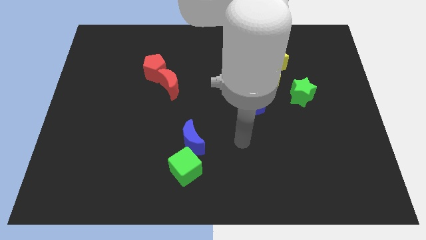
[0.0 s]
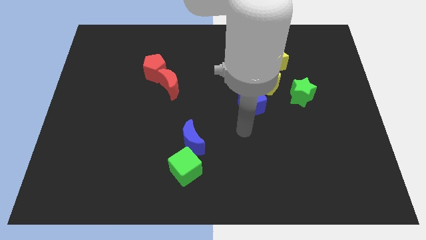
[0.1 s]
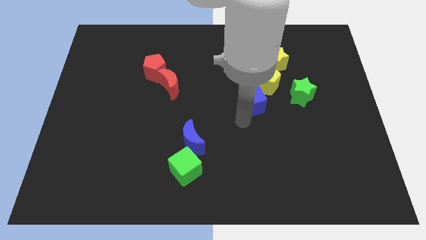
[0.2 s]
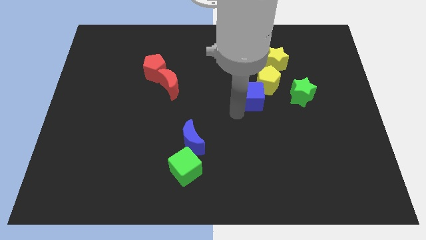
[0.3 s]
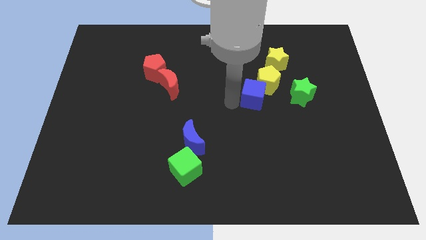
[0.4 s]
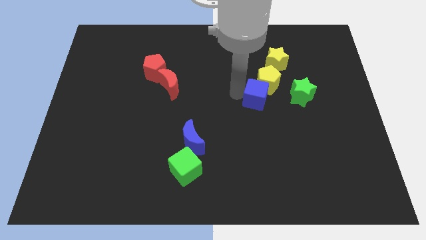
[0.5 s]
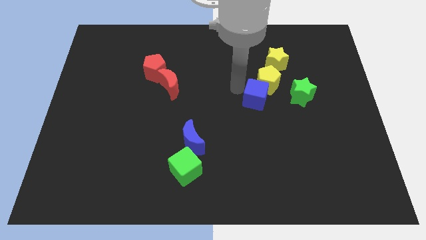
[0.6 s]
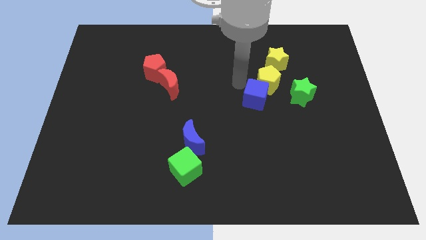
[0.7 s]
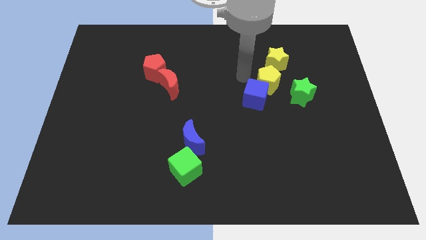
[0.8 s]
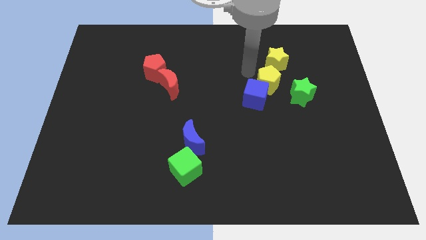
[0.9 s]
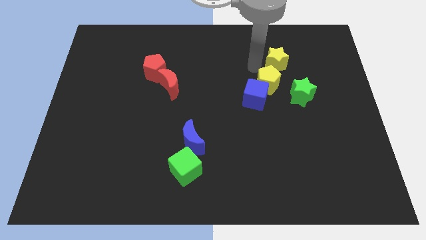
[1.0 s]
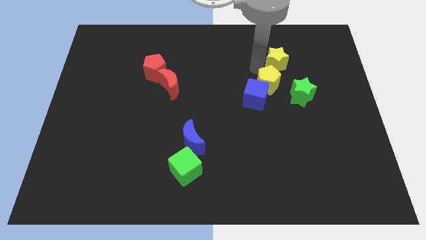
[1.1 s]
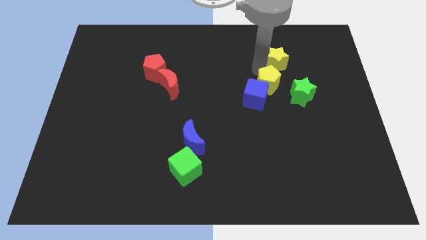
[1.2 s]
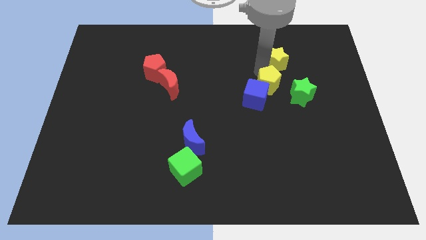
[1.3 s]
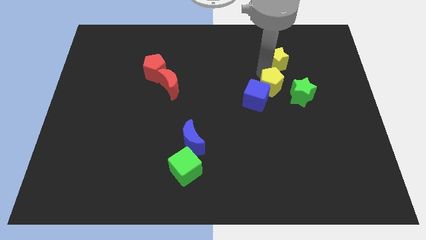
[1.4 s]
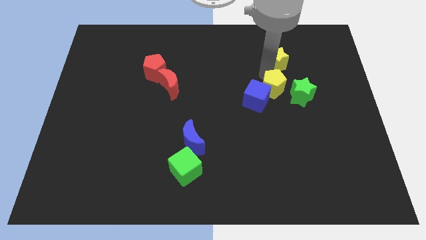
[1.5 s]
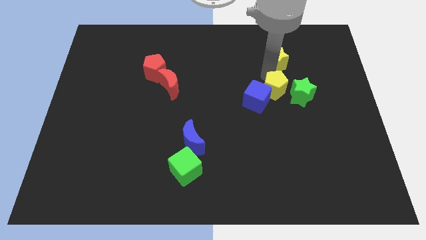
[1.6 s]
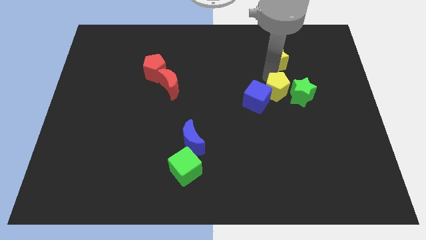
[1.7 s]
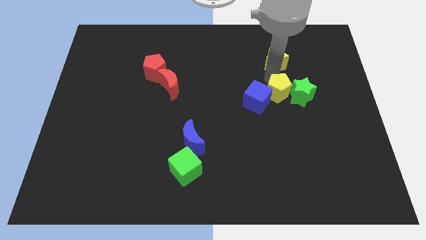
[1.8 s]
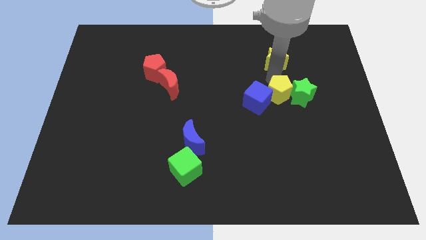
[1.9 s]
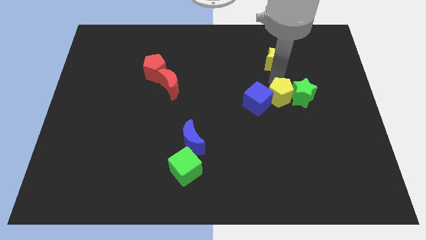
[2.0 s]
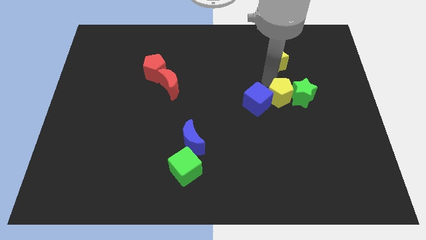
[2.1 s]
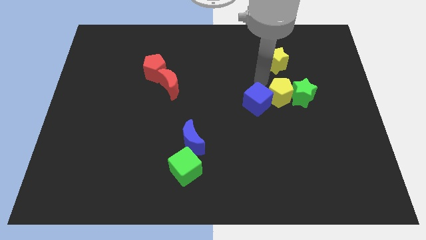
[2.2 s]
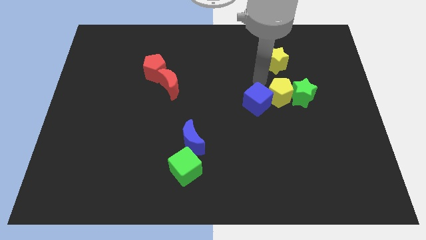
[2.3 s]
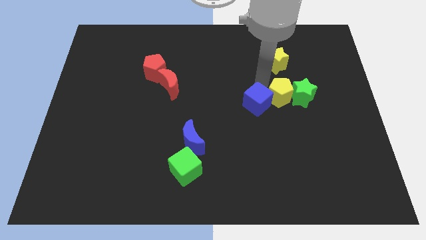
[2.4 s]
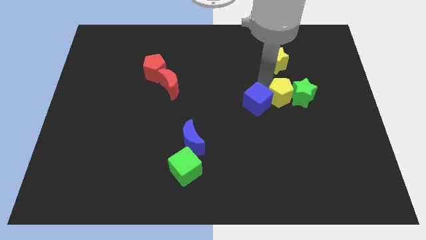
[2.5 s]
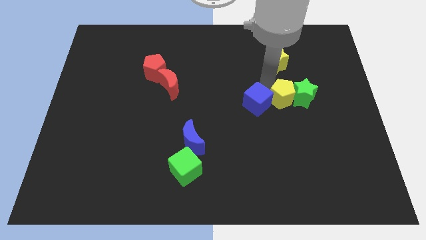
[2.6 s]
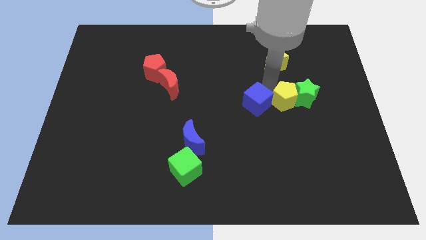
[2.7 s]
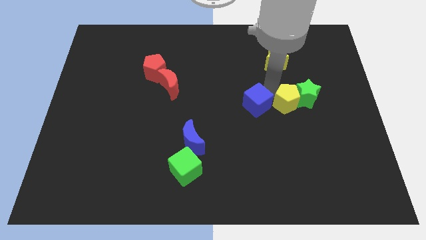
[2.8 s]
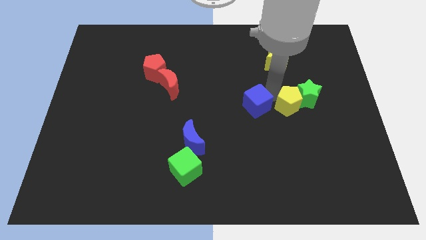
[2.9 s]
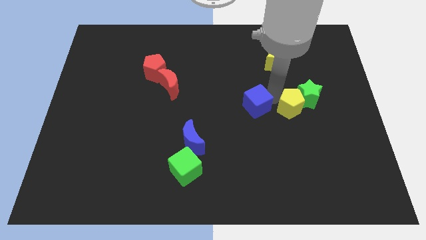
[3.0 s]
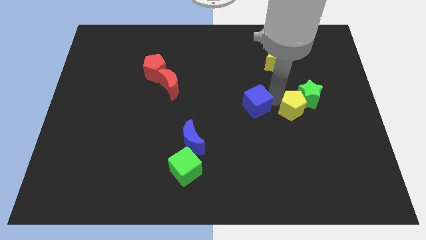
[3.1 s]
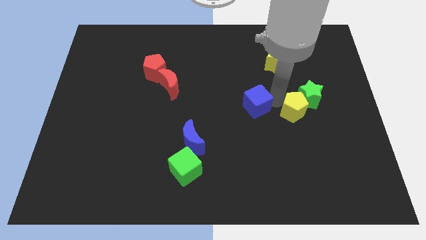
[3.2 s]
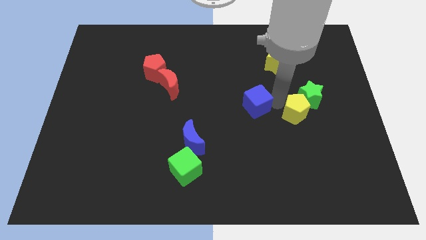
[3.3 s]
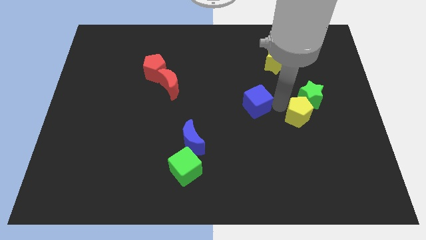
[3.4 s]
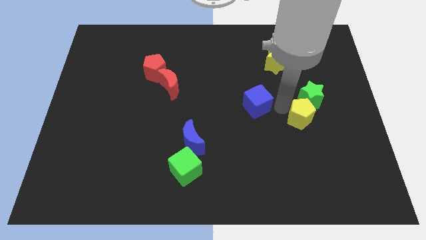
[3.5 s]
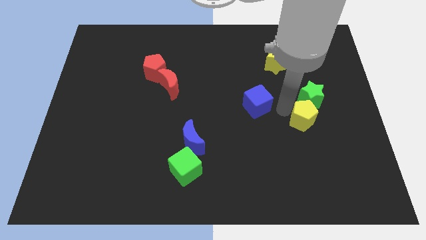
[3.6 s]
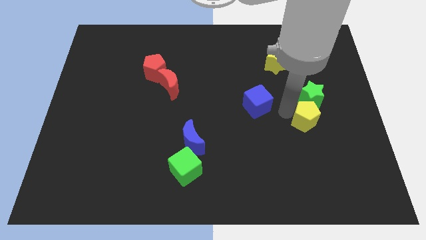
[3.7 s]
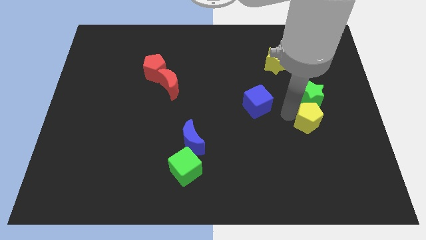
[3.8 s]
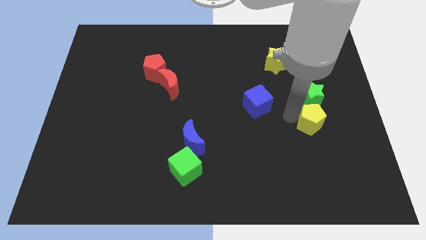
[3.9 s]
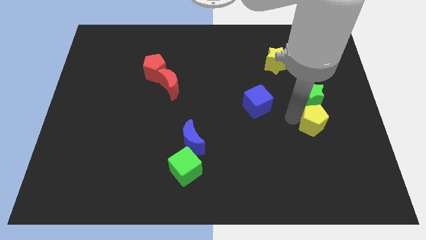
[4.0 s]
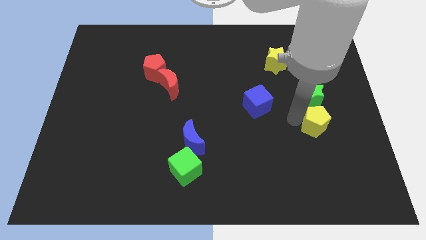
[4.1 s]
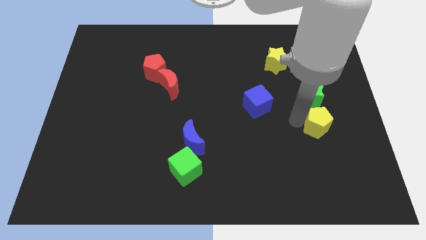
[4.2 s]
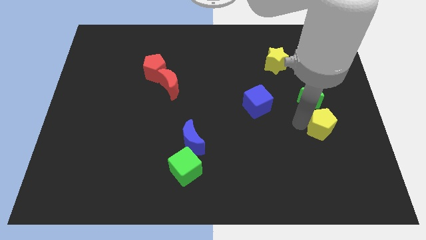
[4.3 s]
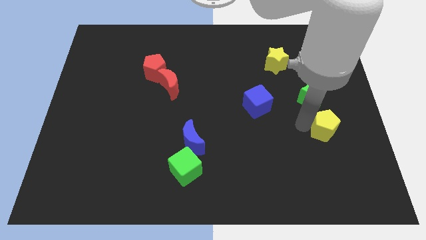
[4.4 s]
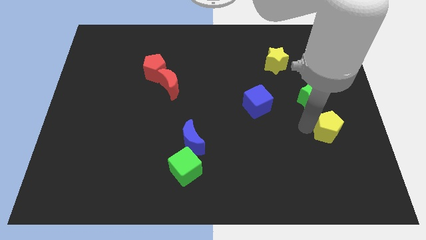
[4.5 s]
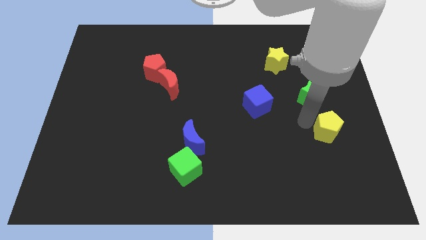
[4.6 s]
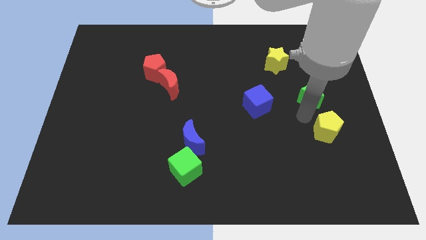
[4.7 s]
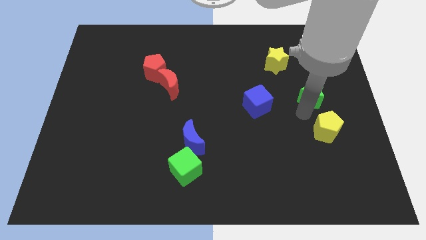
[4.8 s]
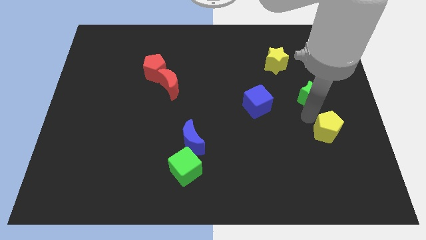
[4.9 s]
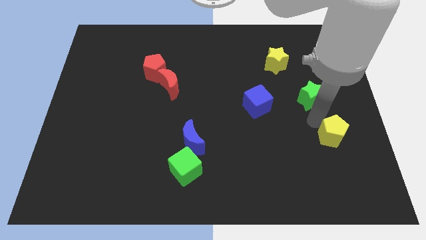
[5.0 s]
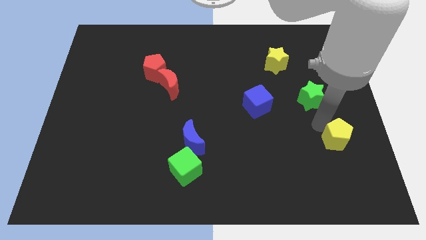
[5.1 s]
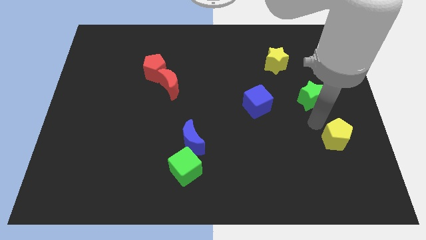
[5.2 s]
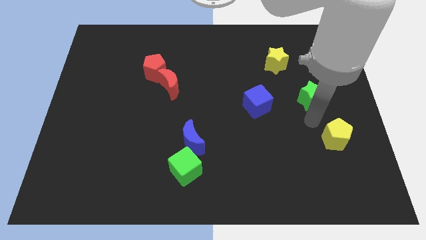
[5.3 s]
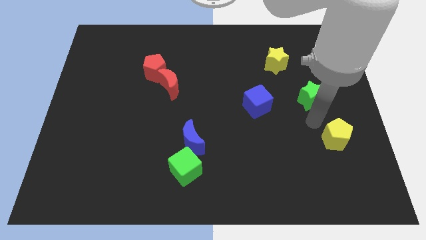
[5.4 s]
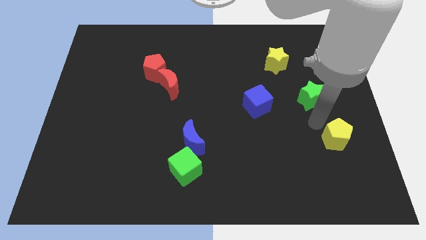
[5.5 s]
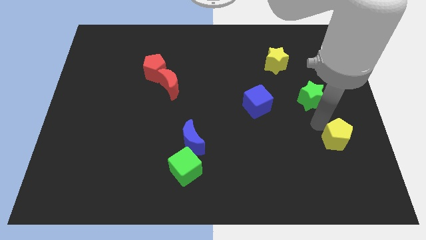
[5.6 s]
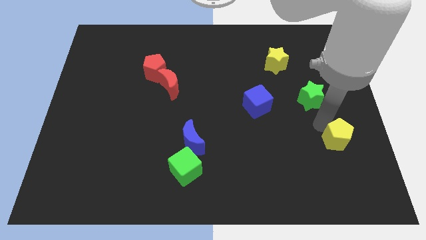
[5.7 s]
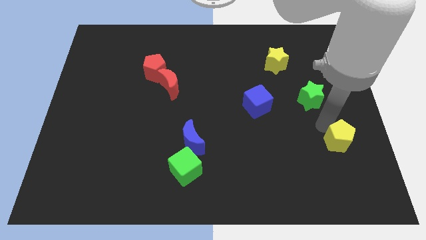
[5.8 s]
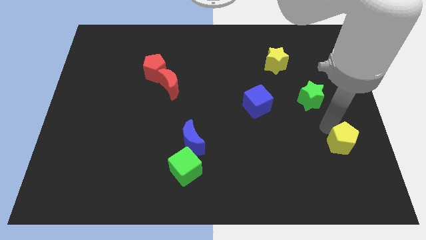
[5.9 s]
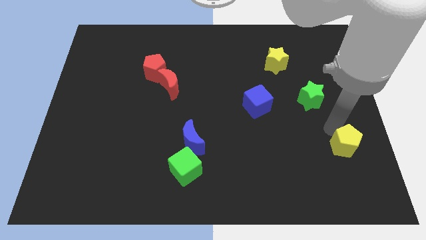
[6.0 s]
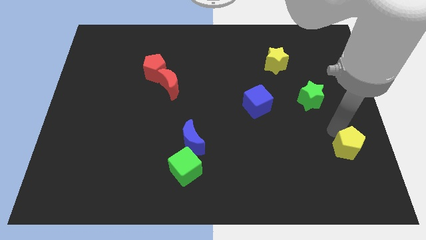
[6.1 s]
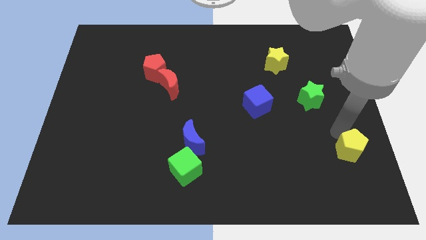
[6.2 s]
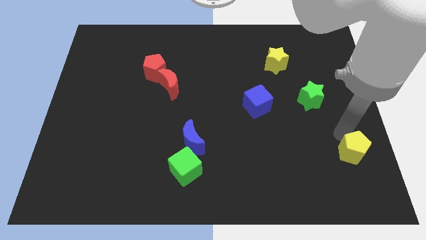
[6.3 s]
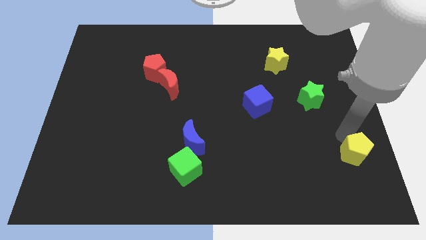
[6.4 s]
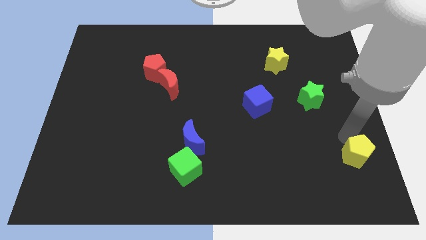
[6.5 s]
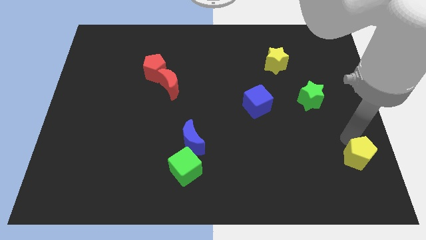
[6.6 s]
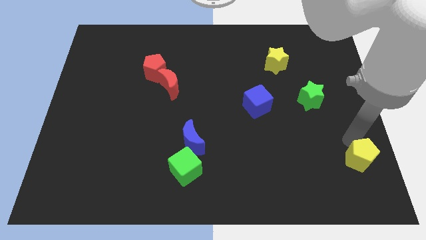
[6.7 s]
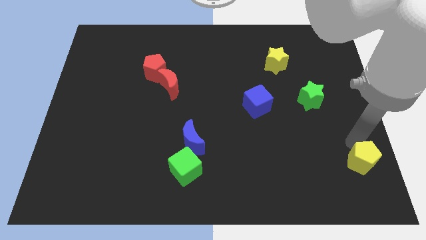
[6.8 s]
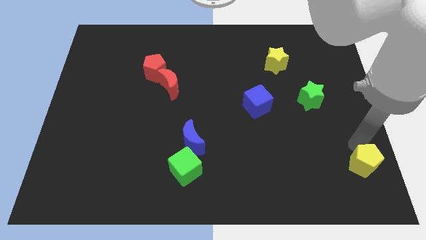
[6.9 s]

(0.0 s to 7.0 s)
push the yellow pentagon to the bottom right
